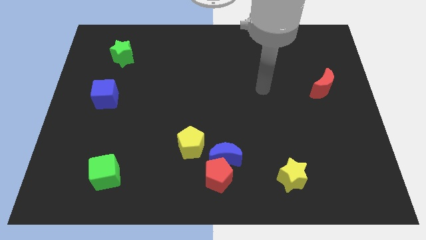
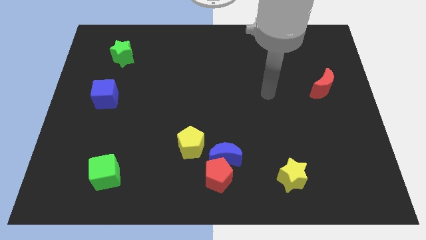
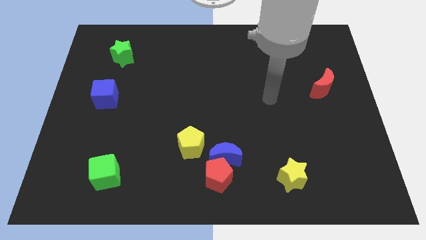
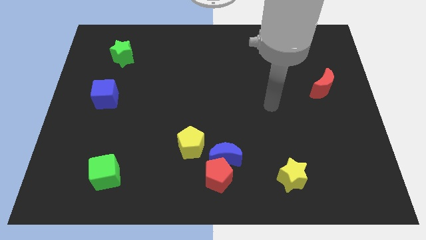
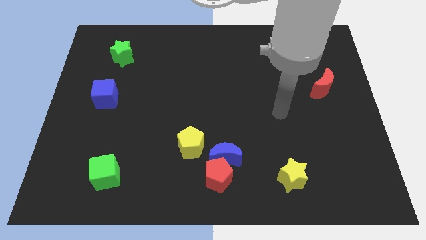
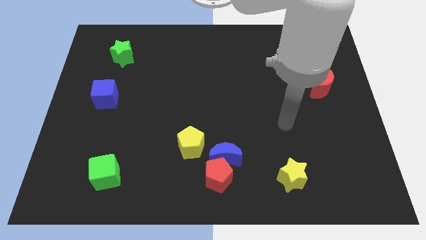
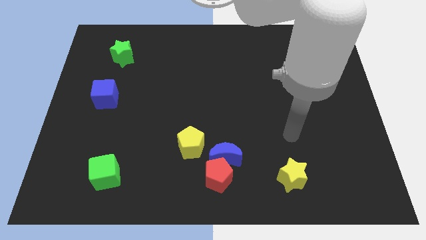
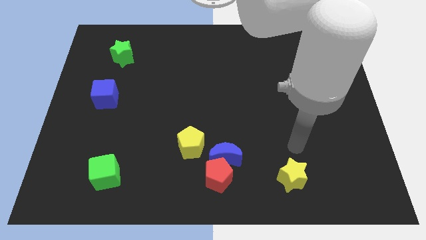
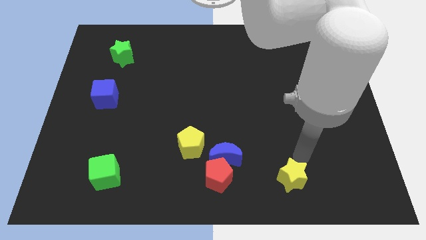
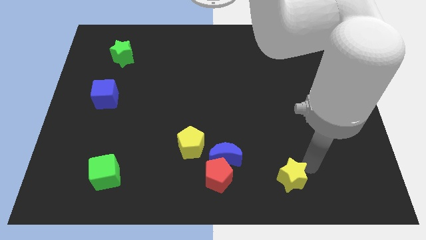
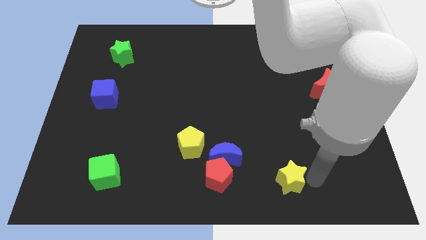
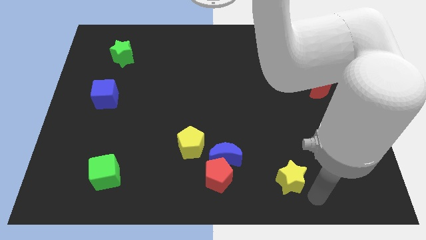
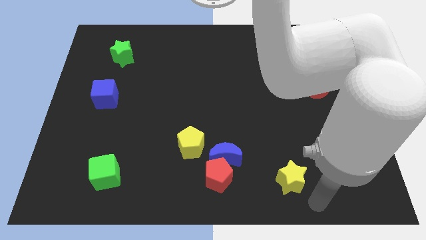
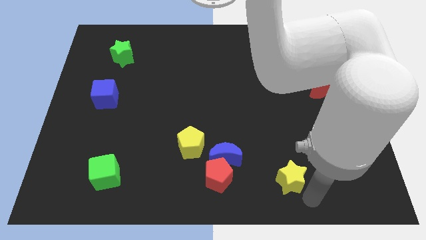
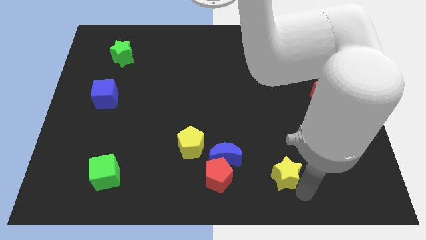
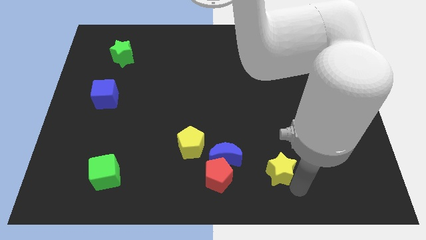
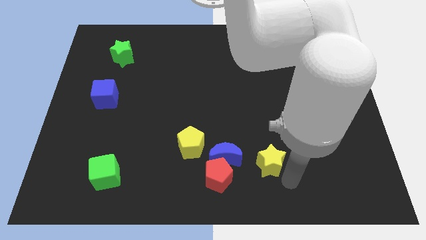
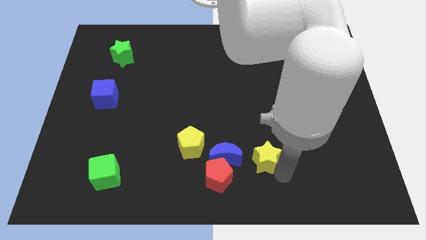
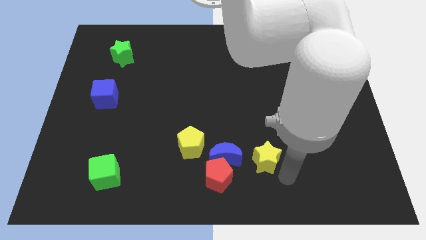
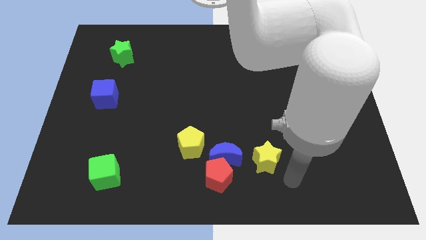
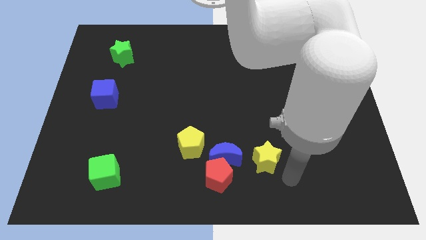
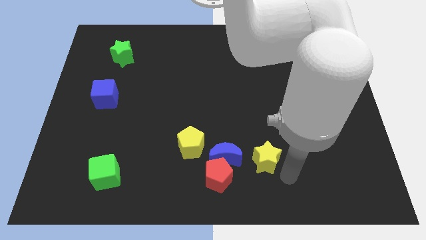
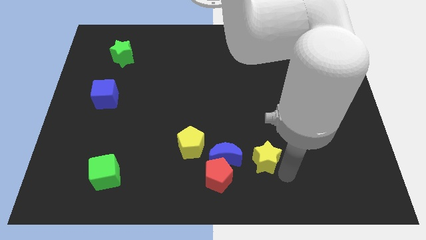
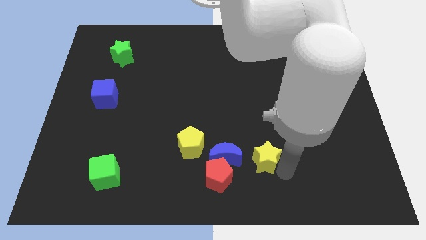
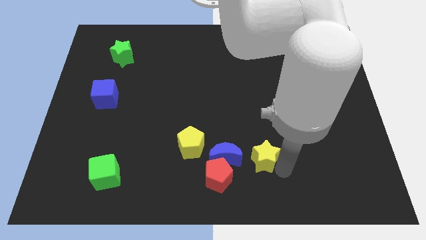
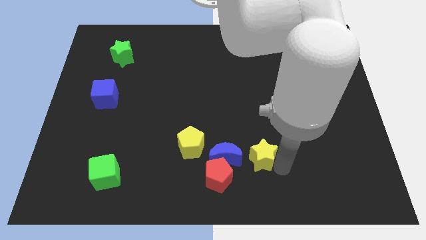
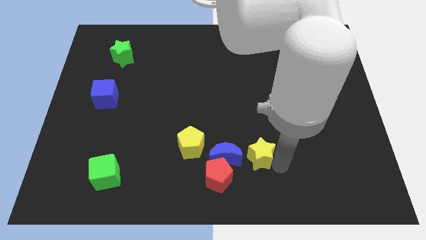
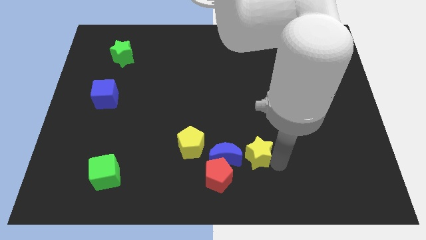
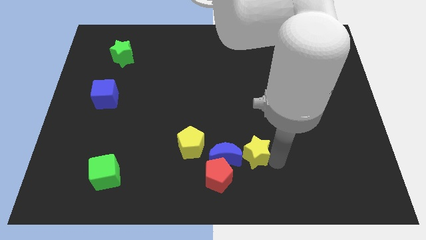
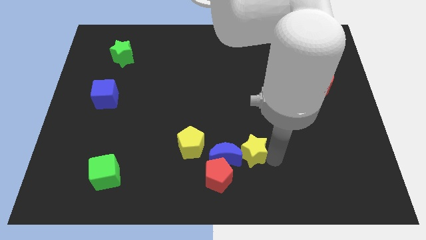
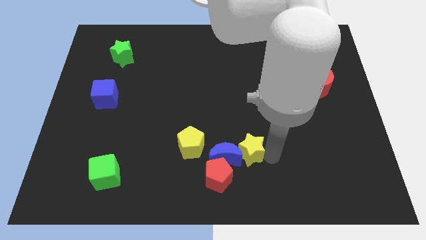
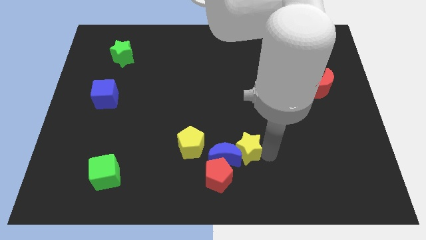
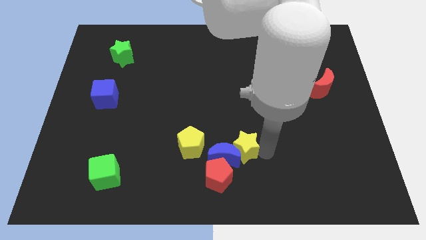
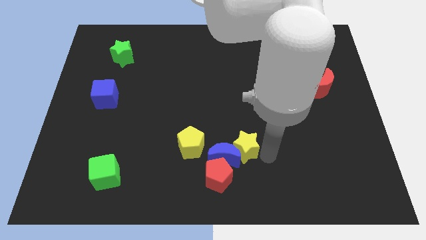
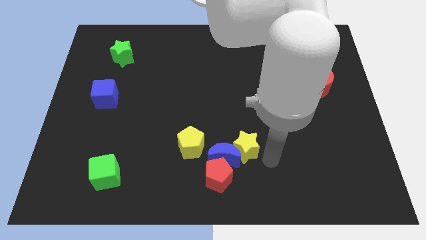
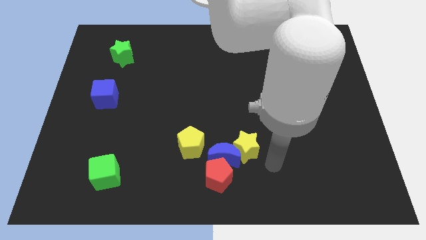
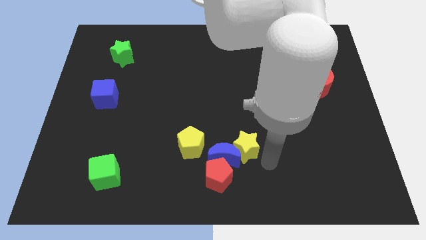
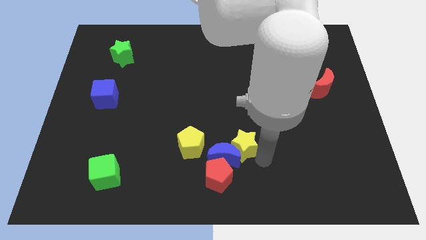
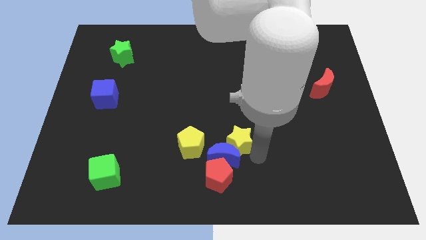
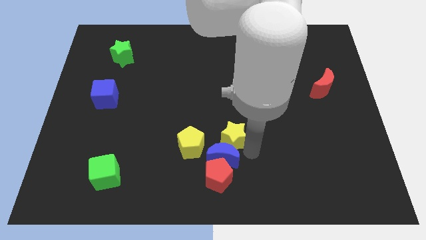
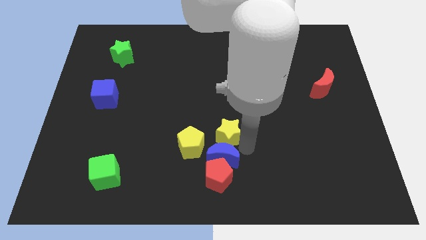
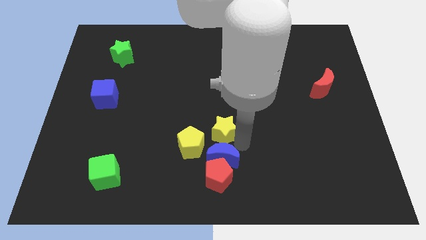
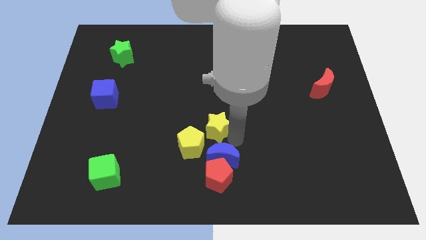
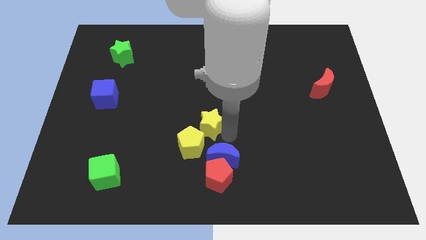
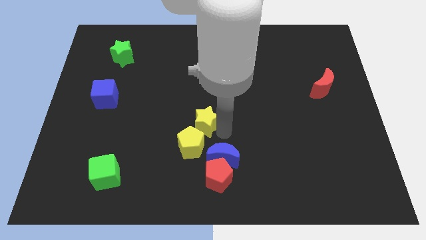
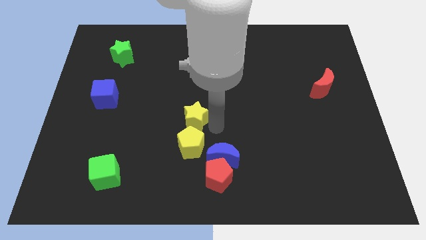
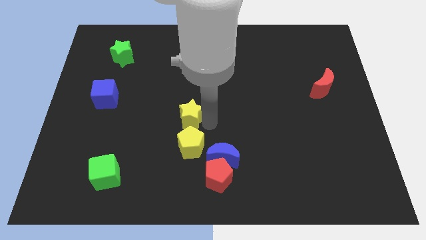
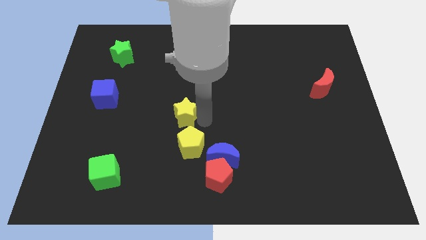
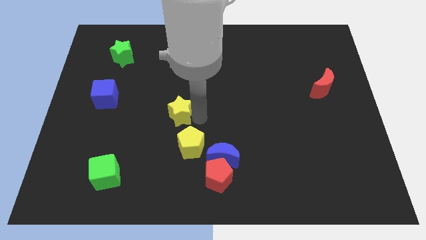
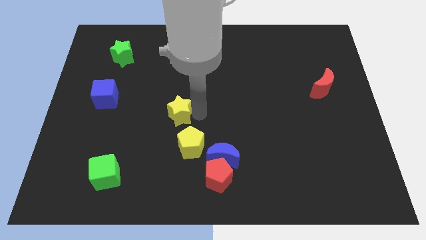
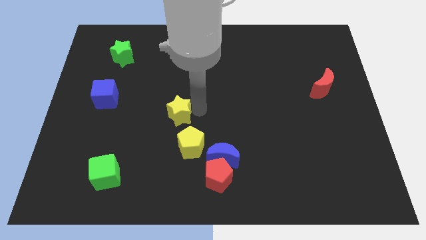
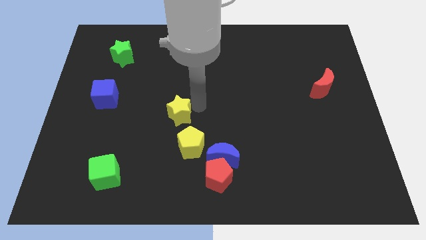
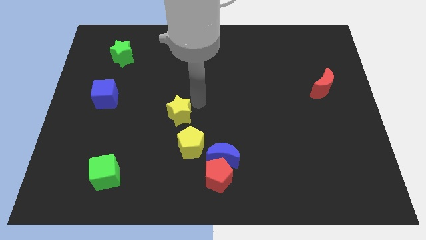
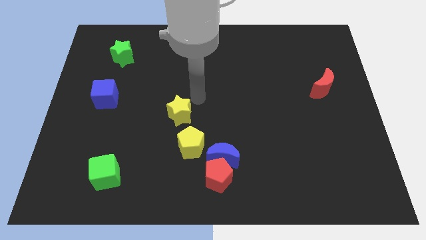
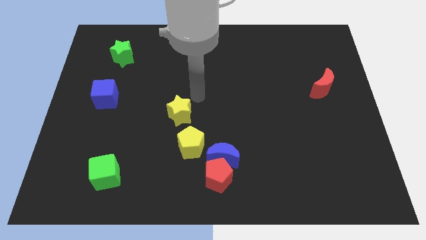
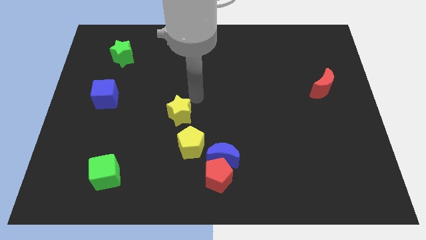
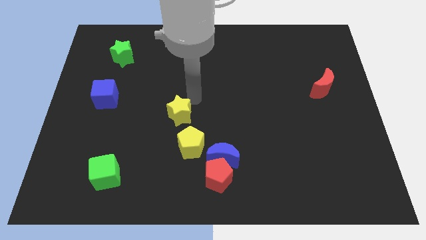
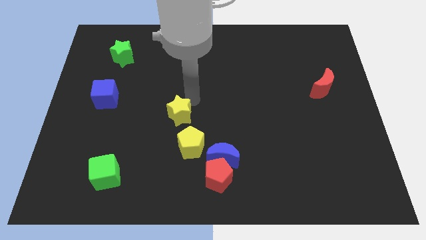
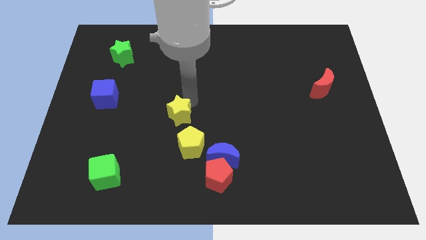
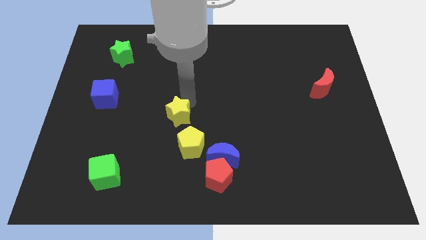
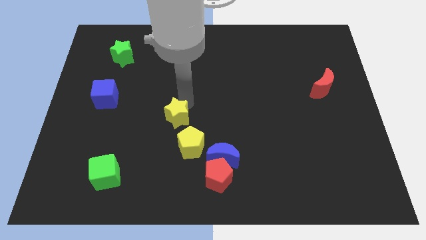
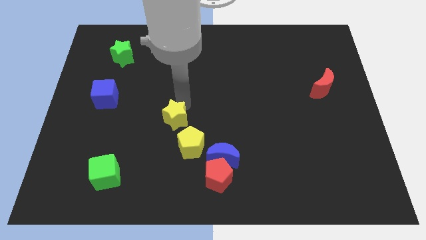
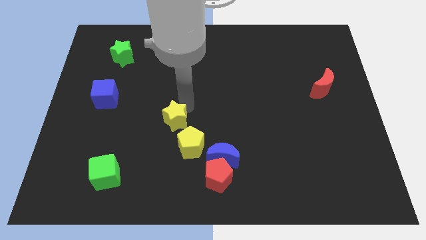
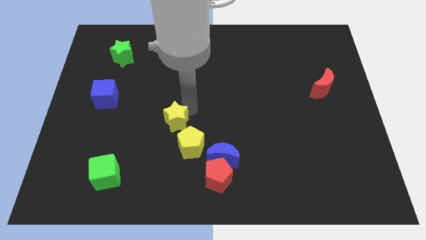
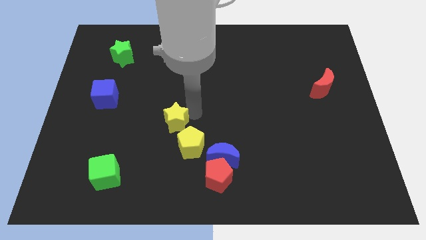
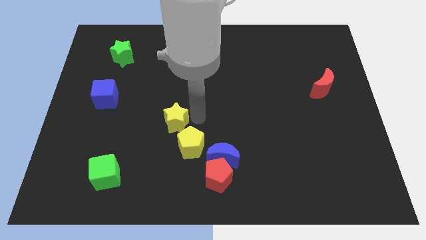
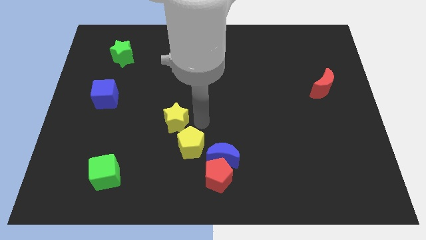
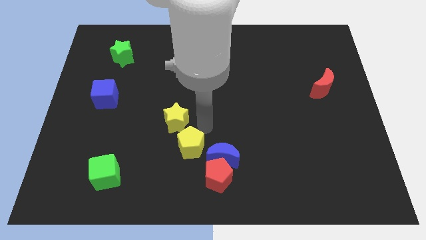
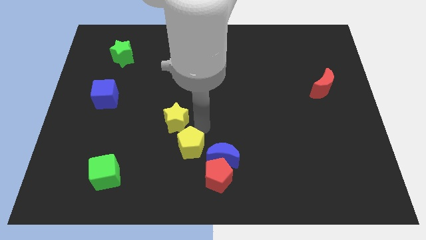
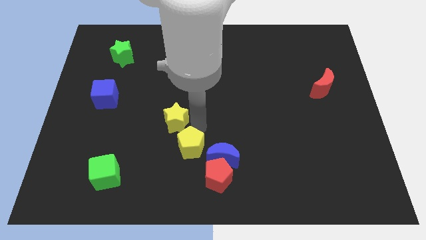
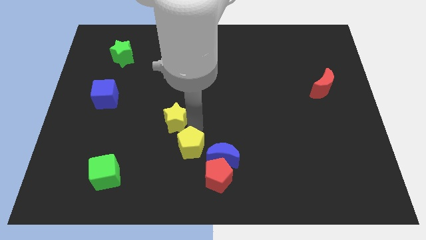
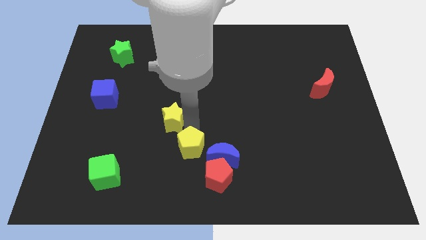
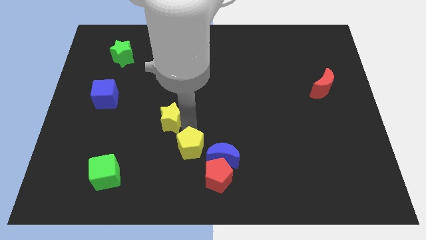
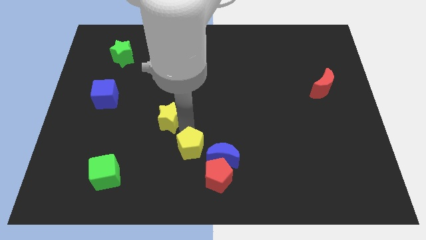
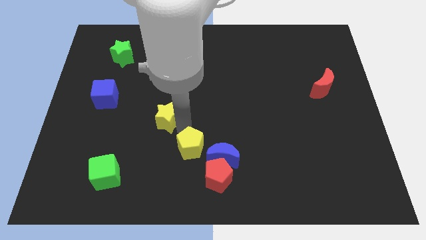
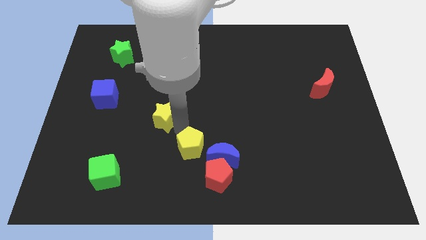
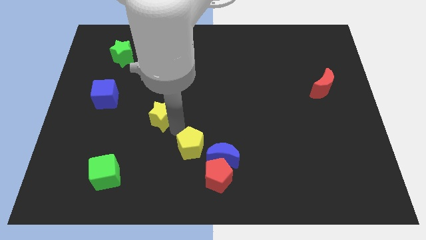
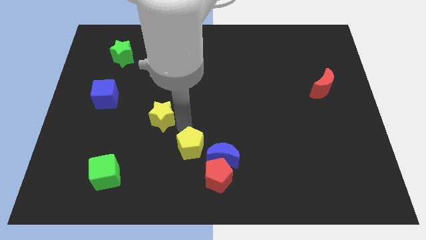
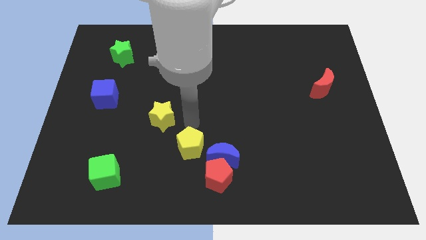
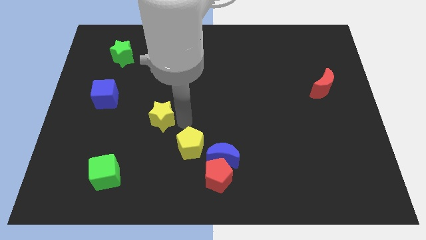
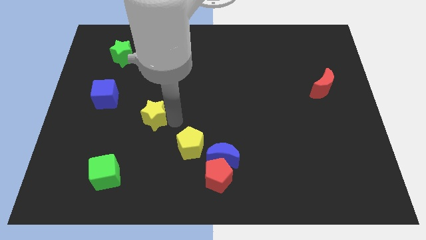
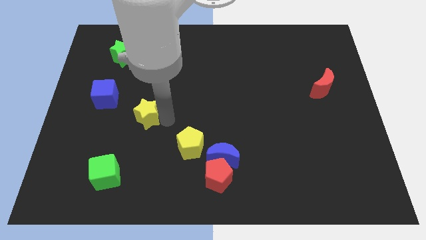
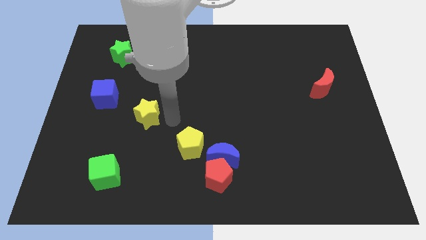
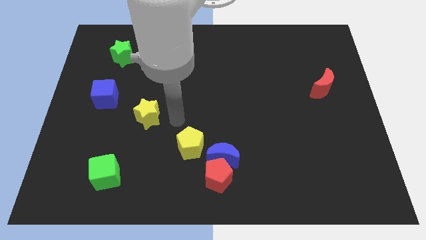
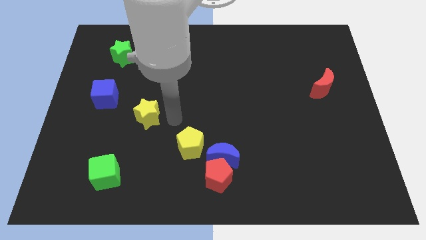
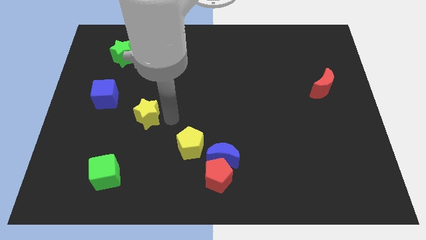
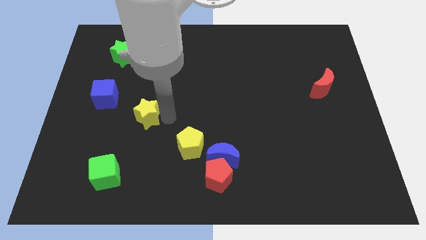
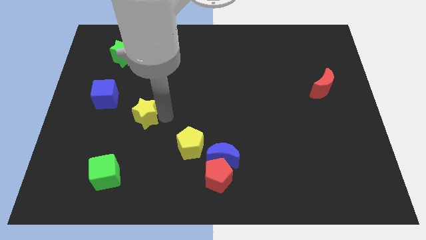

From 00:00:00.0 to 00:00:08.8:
push the yellow star to the bottom right of the blue cube
